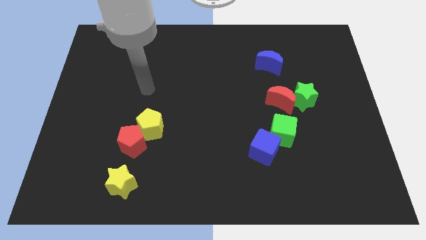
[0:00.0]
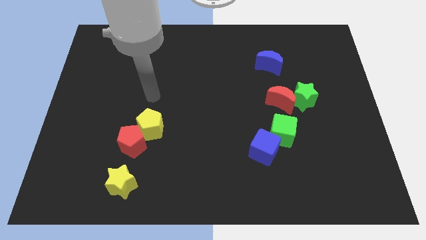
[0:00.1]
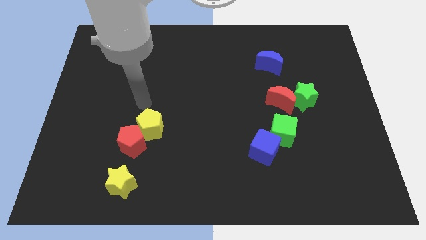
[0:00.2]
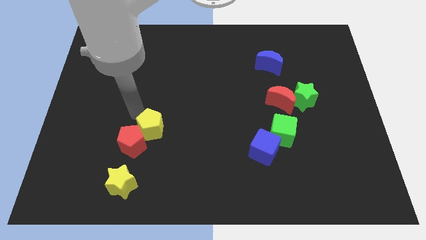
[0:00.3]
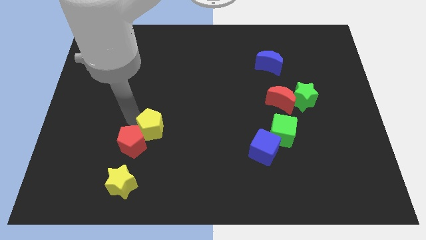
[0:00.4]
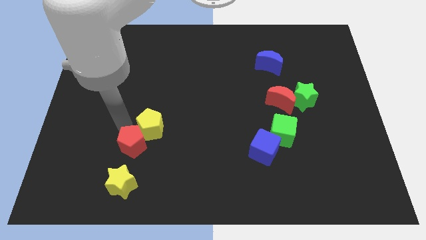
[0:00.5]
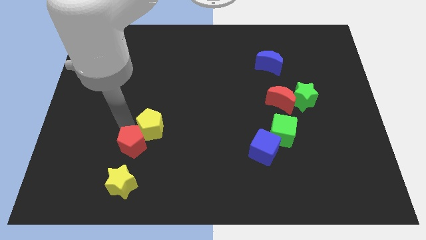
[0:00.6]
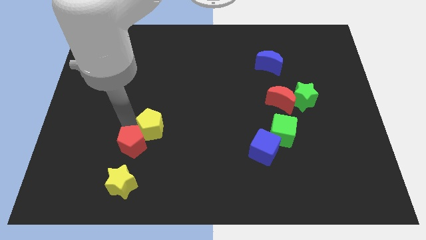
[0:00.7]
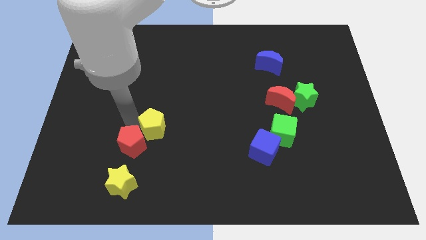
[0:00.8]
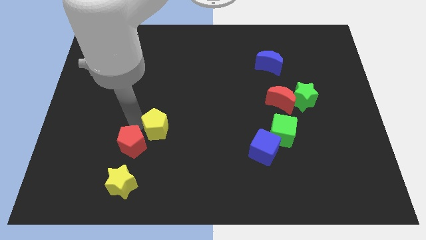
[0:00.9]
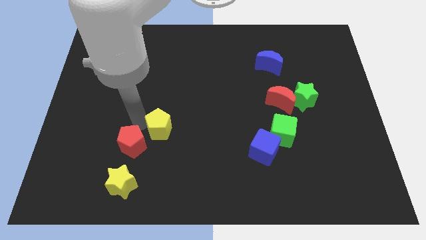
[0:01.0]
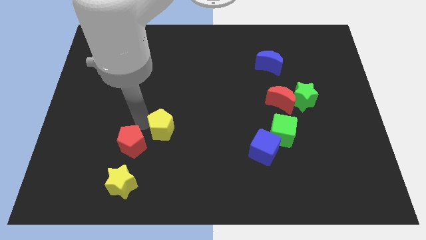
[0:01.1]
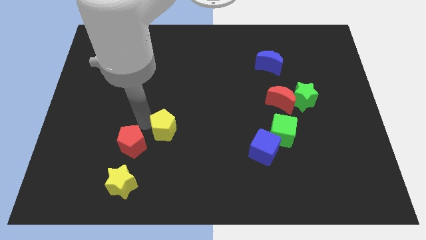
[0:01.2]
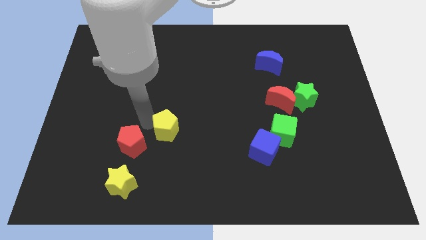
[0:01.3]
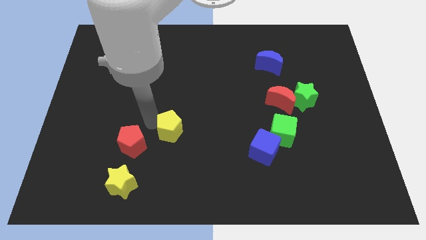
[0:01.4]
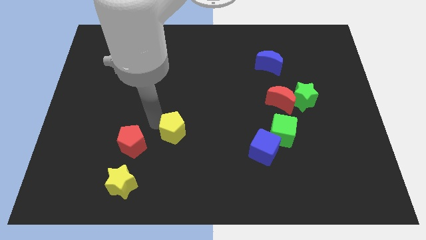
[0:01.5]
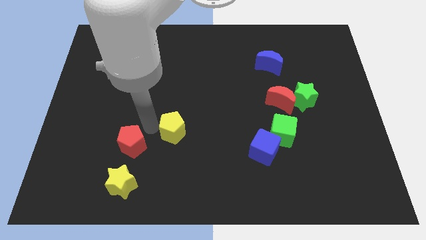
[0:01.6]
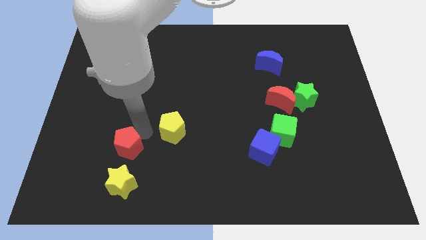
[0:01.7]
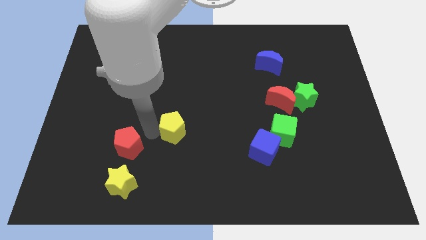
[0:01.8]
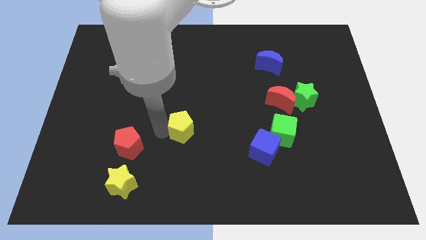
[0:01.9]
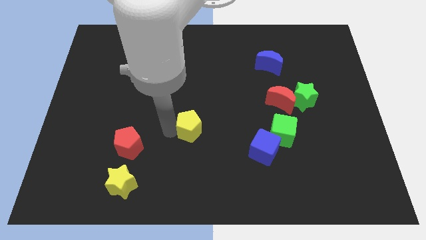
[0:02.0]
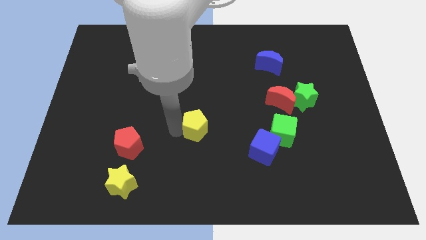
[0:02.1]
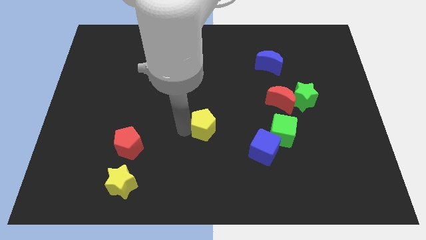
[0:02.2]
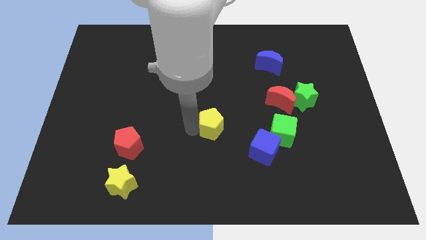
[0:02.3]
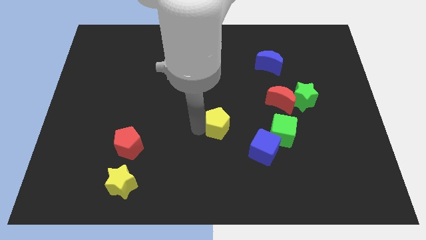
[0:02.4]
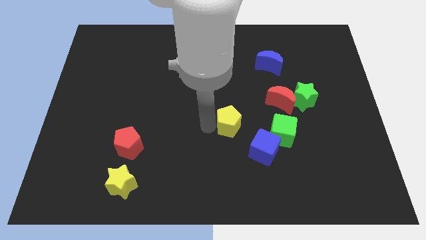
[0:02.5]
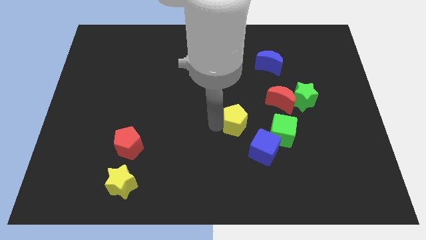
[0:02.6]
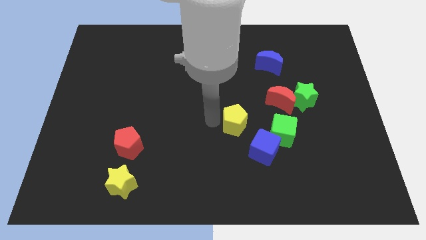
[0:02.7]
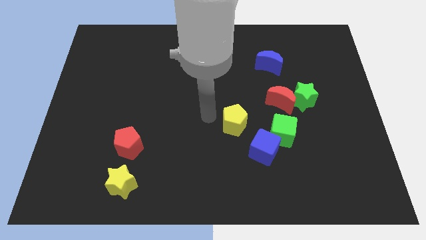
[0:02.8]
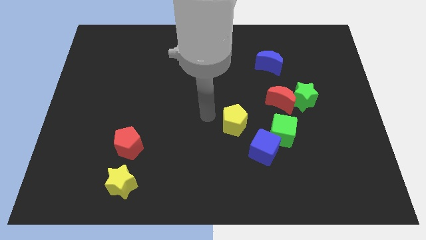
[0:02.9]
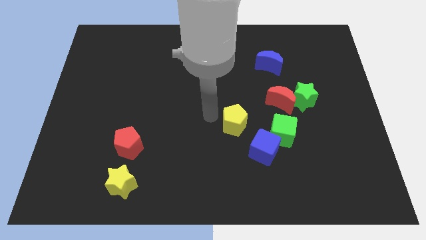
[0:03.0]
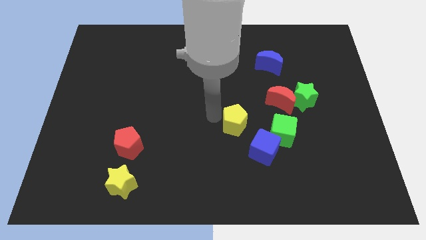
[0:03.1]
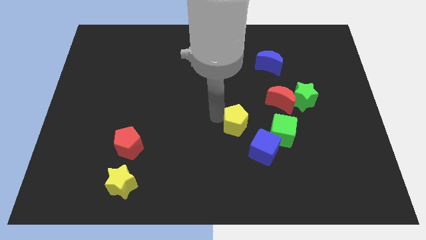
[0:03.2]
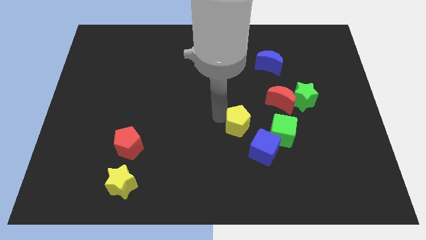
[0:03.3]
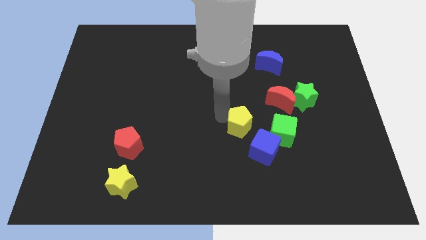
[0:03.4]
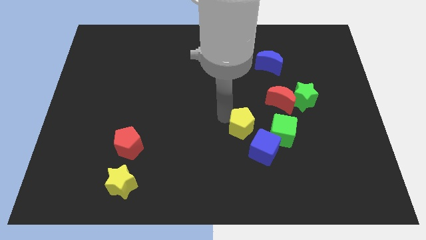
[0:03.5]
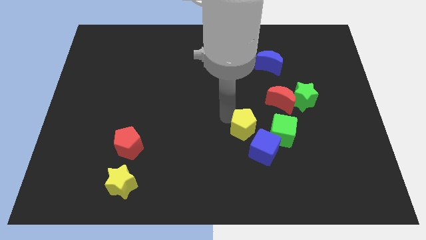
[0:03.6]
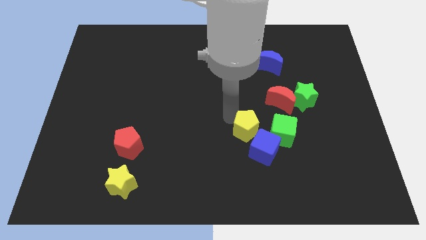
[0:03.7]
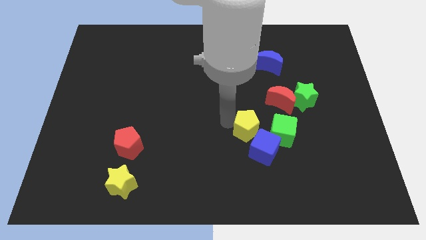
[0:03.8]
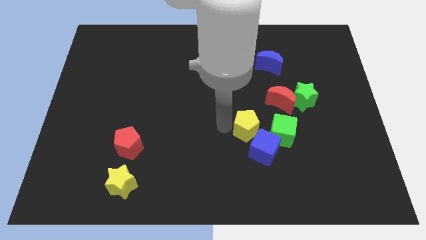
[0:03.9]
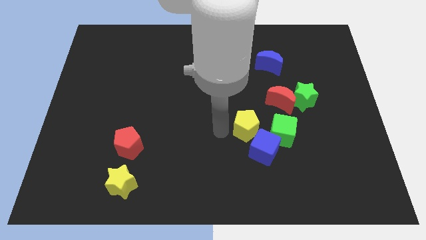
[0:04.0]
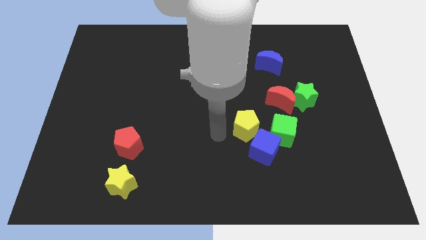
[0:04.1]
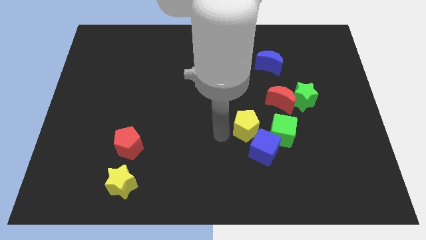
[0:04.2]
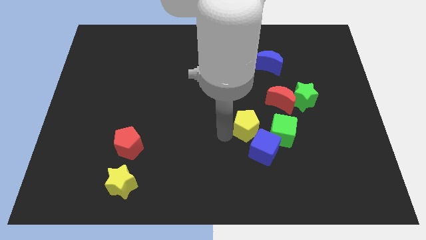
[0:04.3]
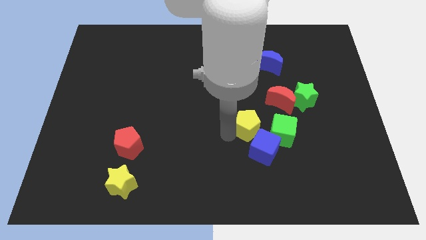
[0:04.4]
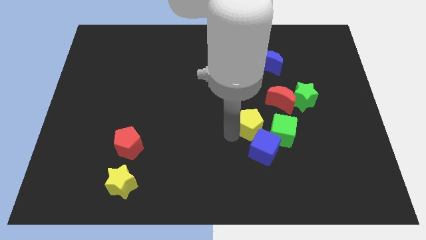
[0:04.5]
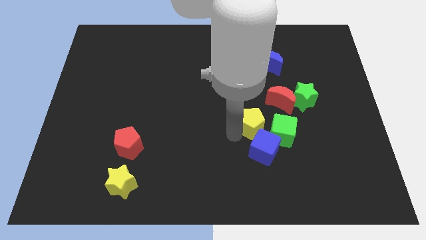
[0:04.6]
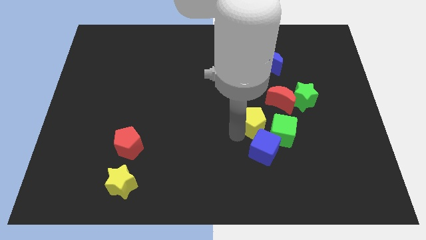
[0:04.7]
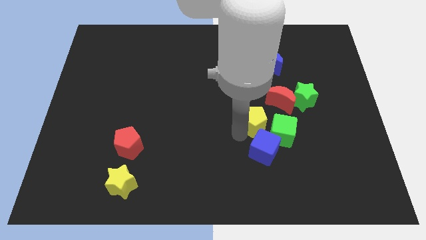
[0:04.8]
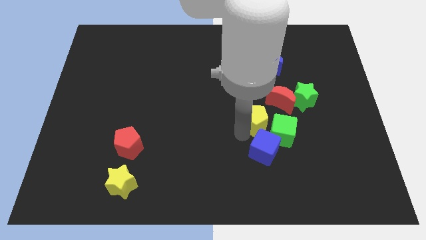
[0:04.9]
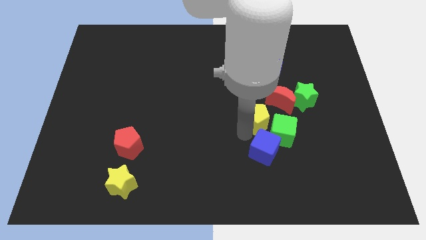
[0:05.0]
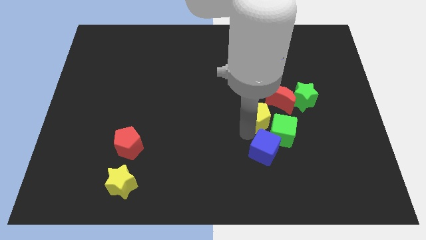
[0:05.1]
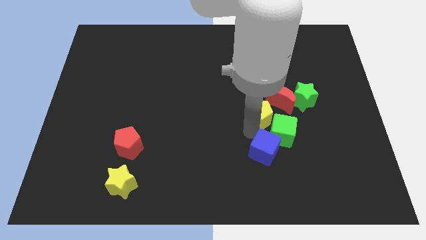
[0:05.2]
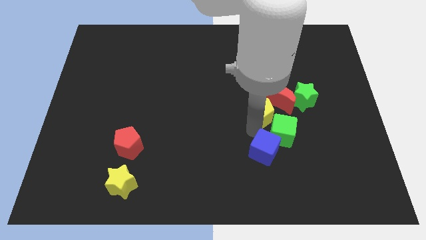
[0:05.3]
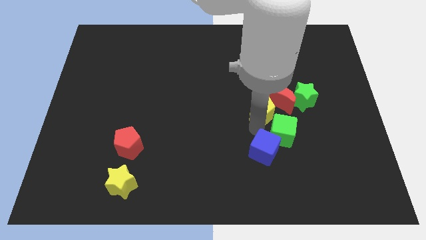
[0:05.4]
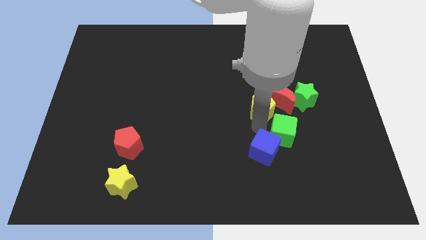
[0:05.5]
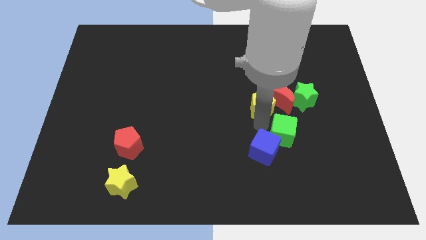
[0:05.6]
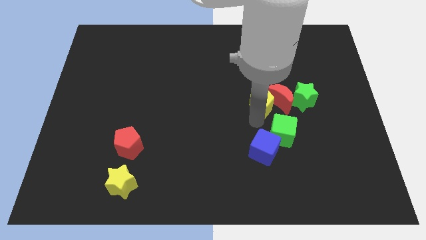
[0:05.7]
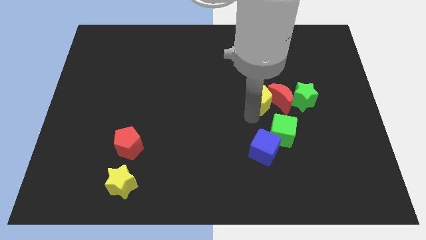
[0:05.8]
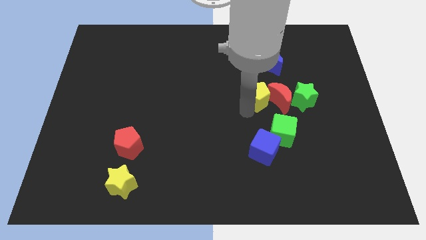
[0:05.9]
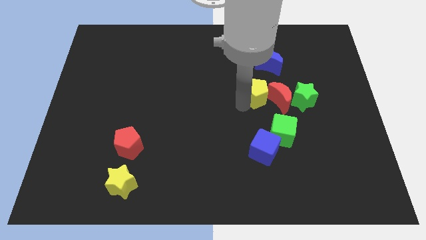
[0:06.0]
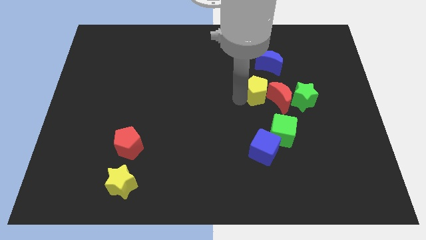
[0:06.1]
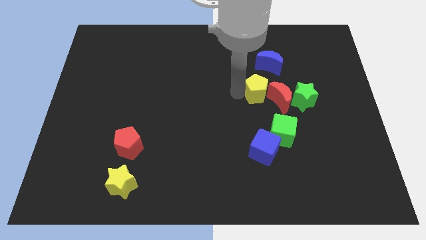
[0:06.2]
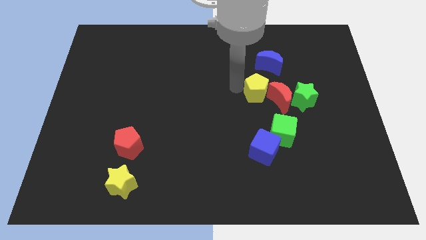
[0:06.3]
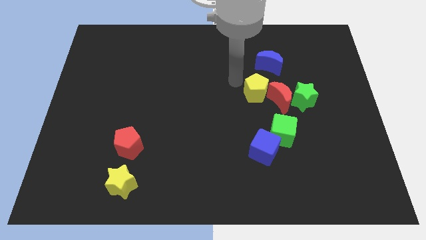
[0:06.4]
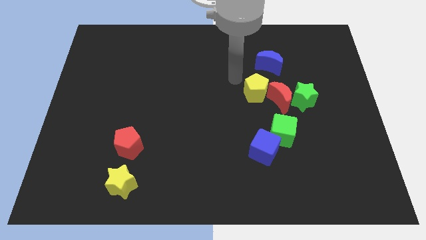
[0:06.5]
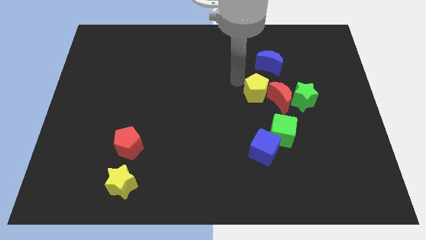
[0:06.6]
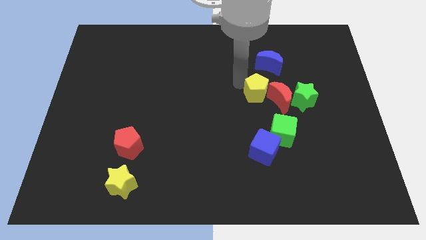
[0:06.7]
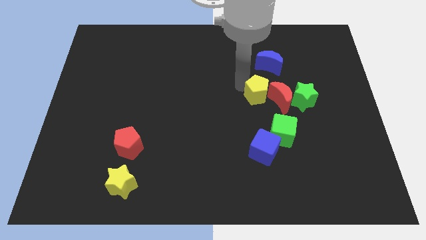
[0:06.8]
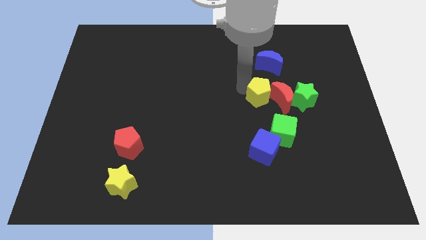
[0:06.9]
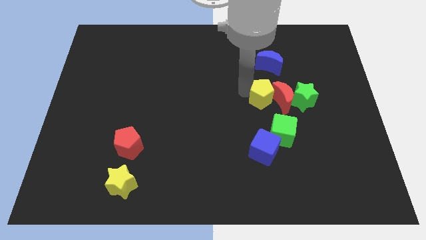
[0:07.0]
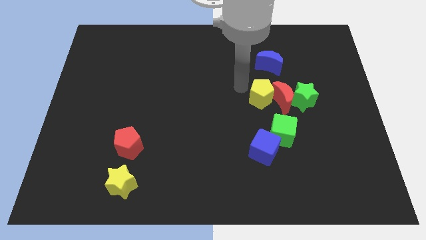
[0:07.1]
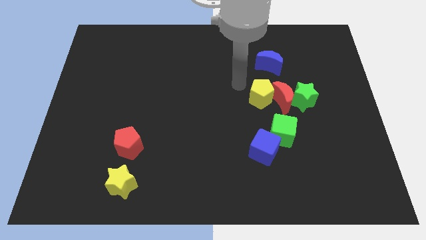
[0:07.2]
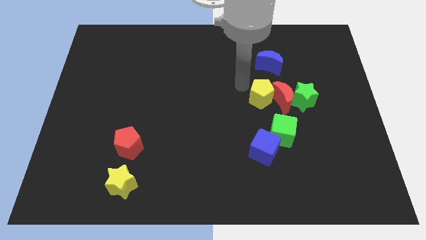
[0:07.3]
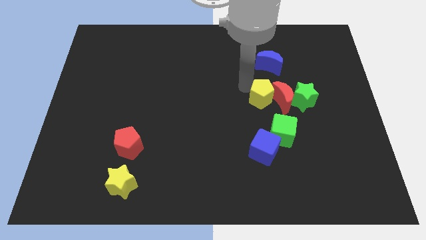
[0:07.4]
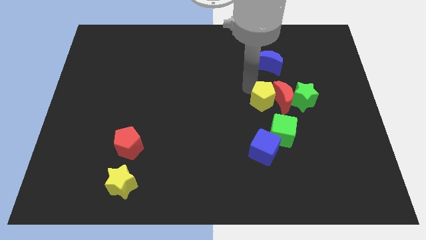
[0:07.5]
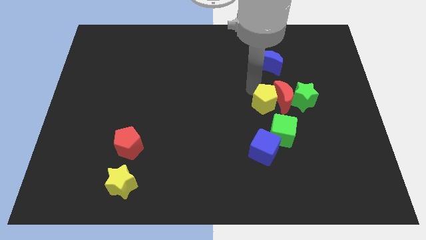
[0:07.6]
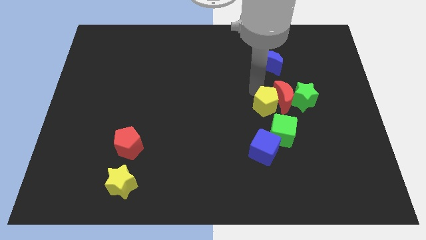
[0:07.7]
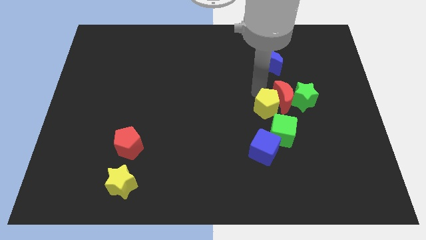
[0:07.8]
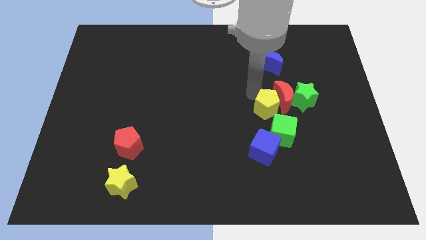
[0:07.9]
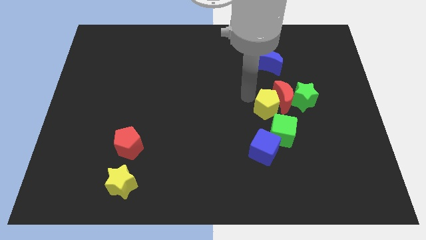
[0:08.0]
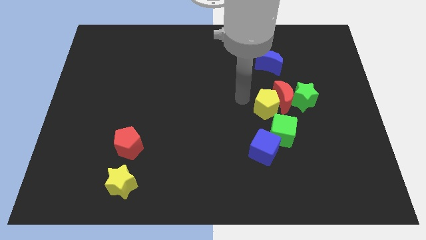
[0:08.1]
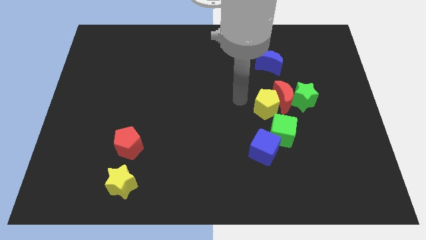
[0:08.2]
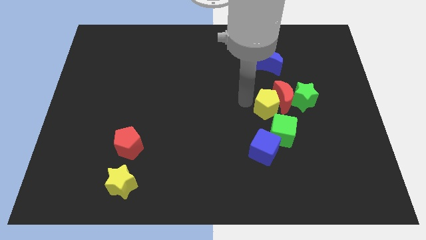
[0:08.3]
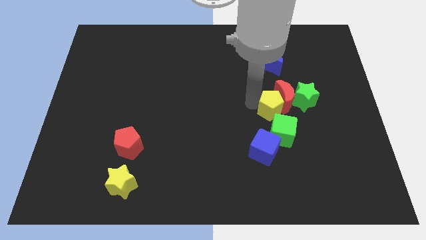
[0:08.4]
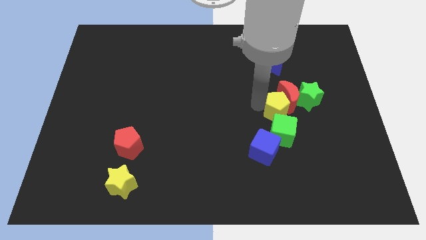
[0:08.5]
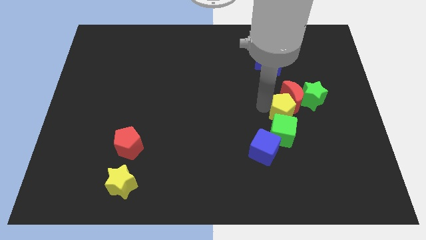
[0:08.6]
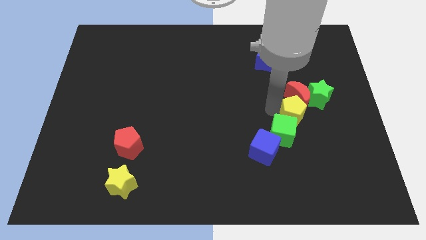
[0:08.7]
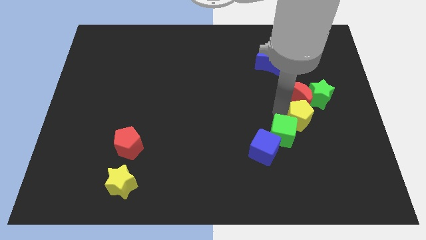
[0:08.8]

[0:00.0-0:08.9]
push the yellow pentagon to the bottom right side of the red moon
